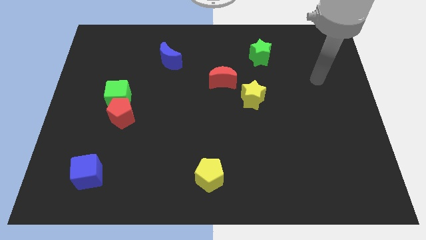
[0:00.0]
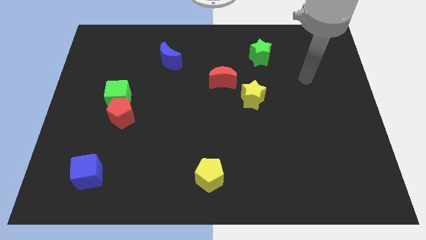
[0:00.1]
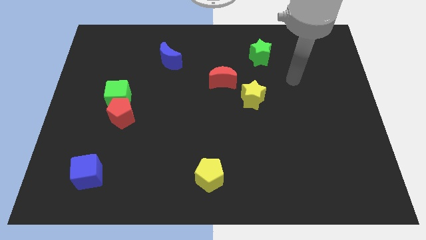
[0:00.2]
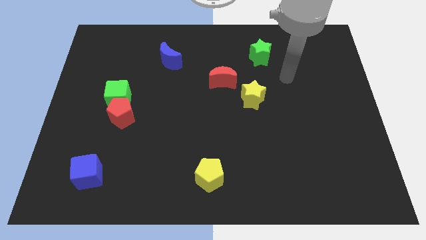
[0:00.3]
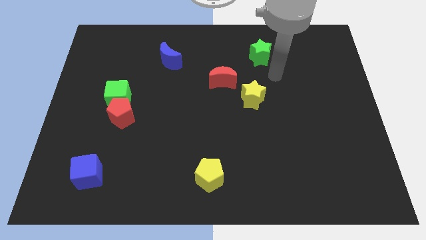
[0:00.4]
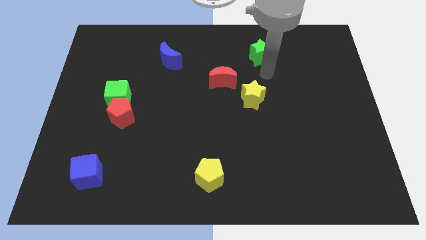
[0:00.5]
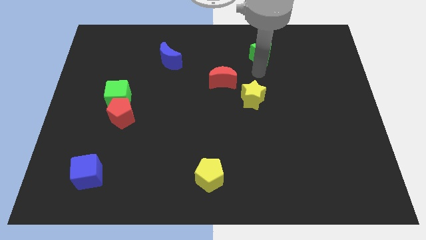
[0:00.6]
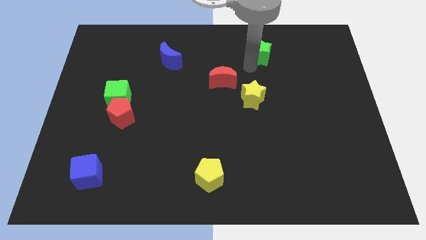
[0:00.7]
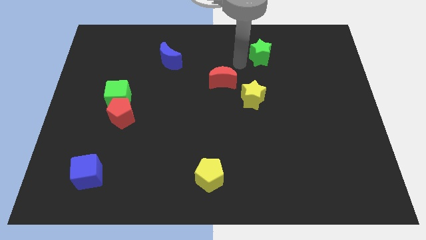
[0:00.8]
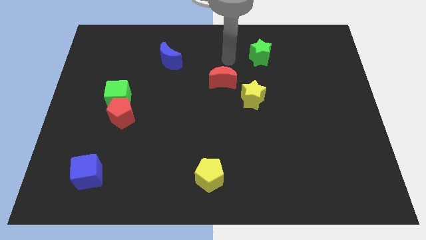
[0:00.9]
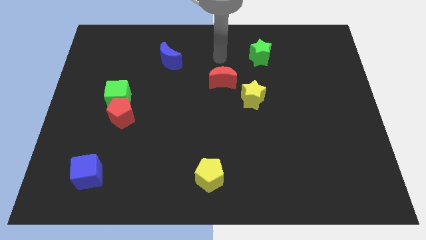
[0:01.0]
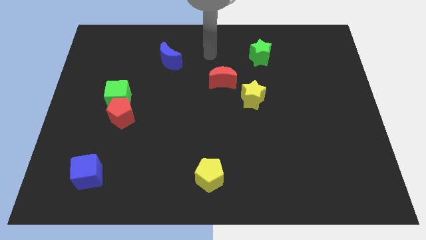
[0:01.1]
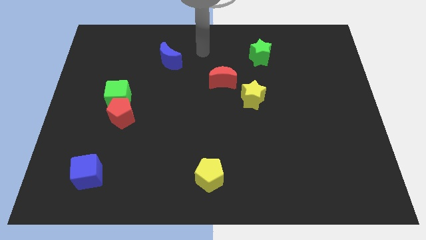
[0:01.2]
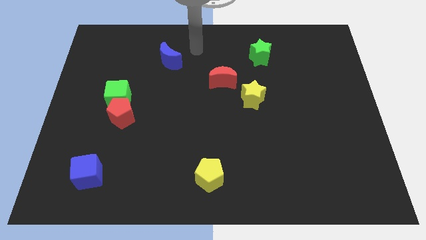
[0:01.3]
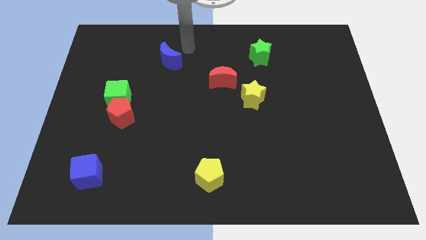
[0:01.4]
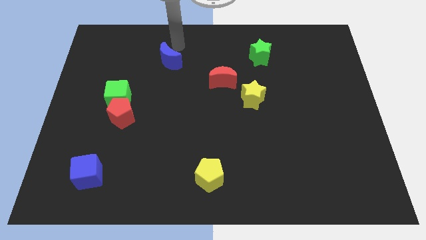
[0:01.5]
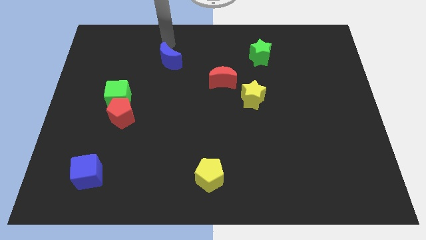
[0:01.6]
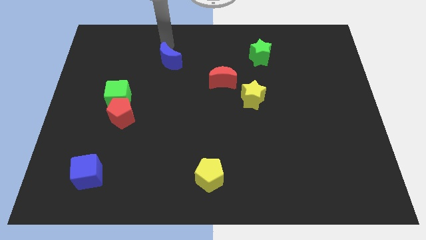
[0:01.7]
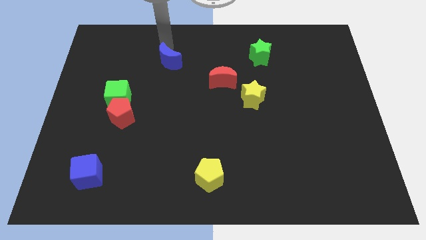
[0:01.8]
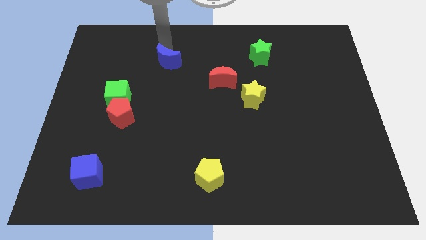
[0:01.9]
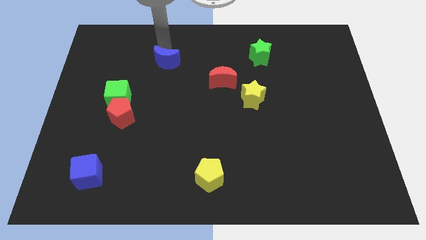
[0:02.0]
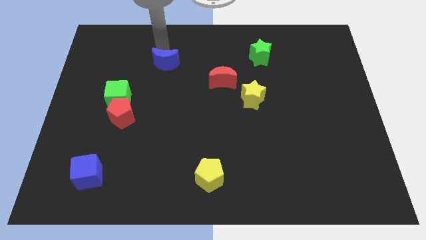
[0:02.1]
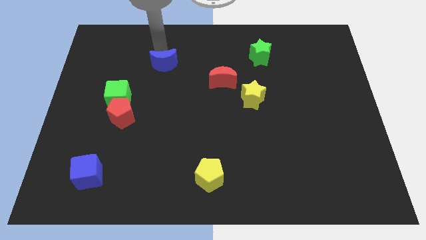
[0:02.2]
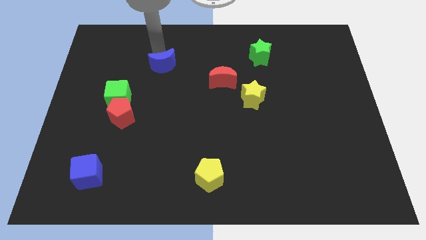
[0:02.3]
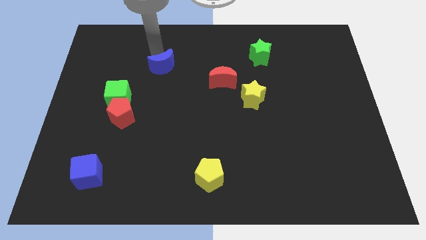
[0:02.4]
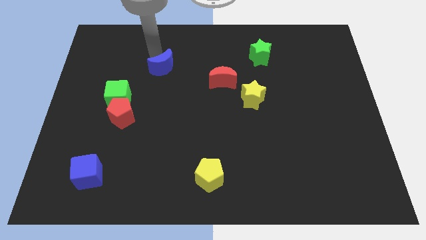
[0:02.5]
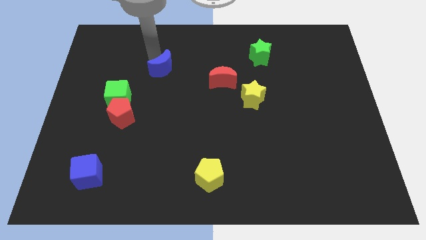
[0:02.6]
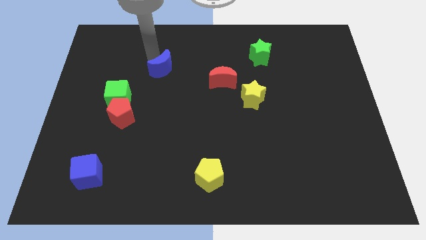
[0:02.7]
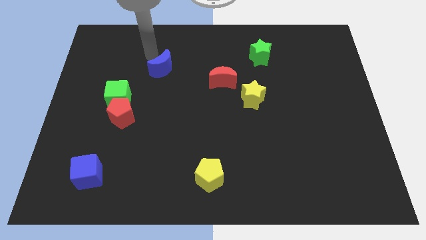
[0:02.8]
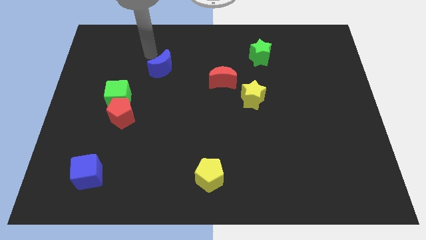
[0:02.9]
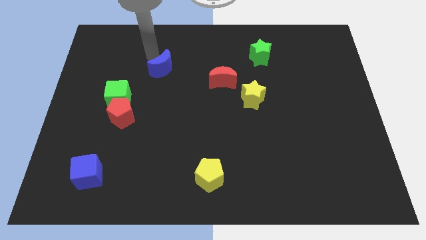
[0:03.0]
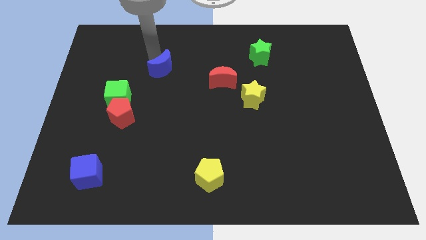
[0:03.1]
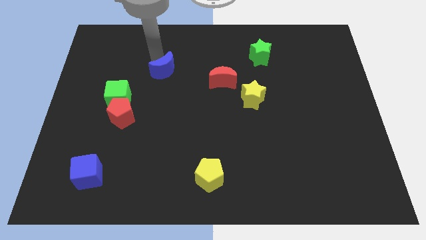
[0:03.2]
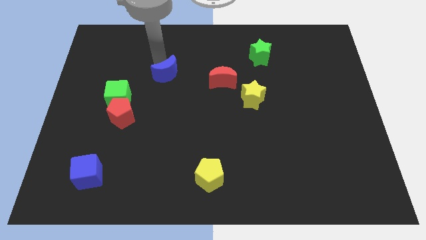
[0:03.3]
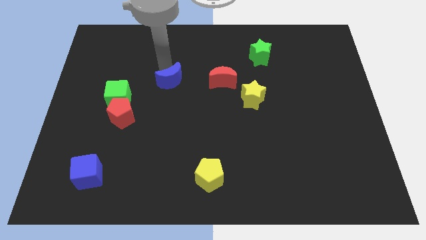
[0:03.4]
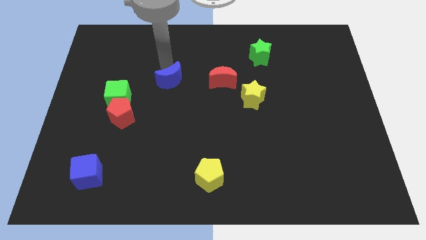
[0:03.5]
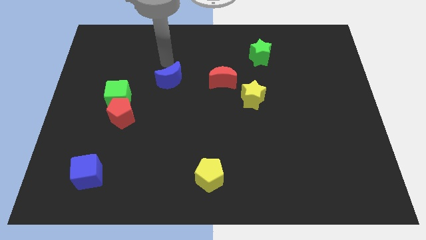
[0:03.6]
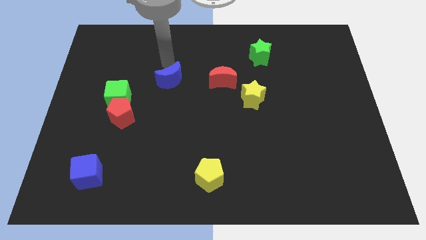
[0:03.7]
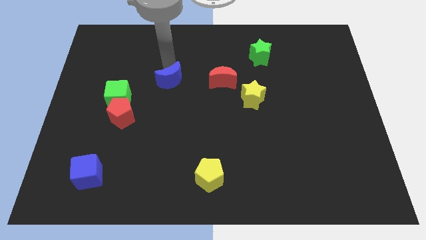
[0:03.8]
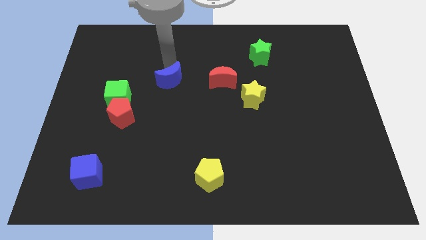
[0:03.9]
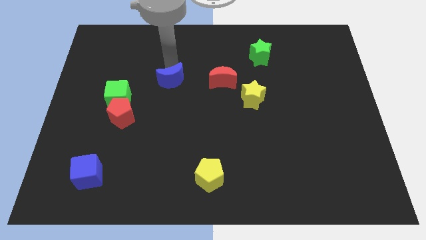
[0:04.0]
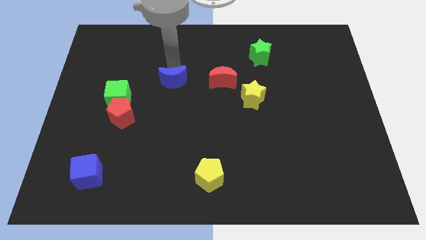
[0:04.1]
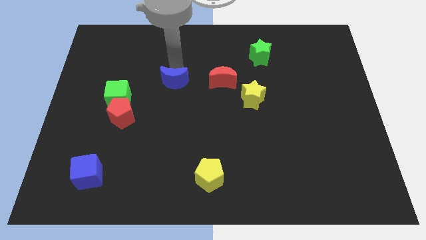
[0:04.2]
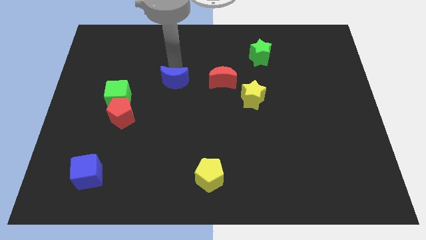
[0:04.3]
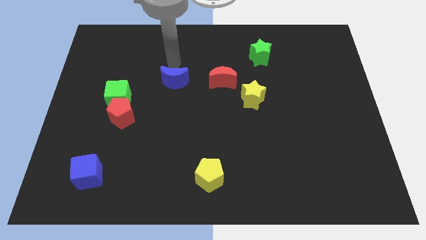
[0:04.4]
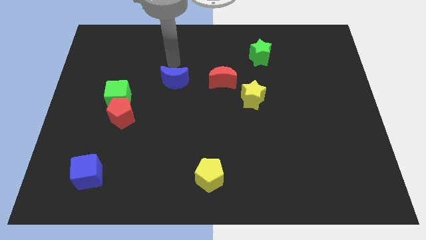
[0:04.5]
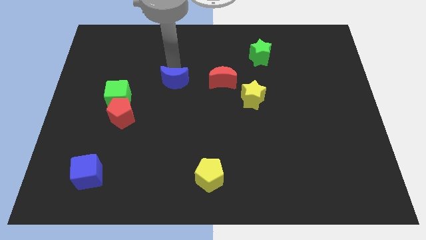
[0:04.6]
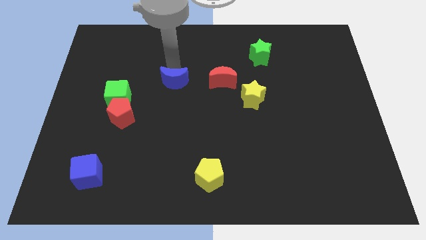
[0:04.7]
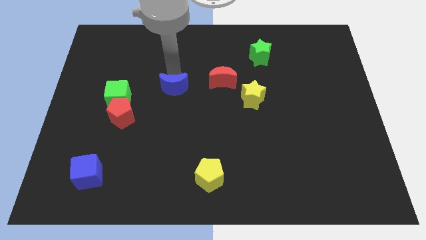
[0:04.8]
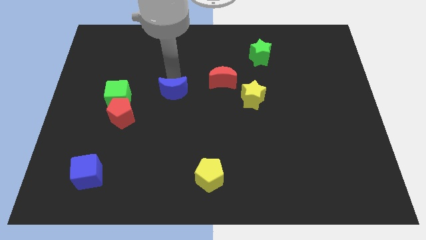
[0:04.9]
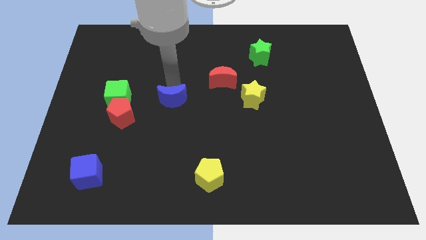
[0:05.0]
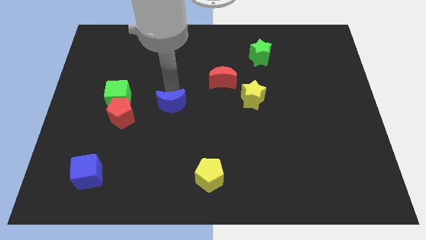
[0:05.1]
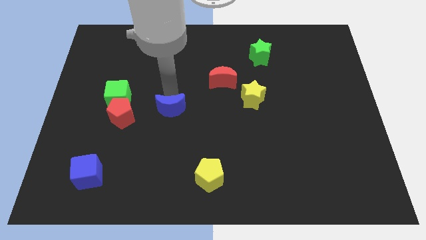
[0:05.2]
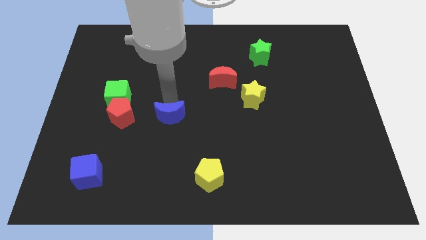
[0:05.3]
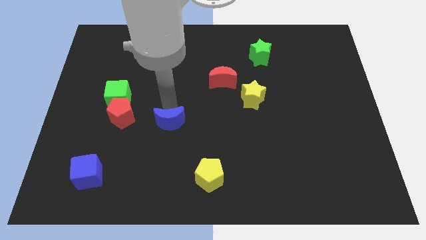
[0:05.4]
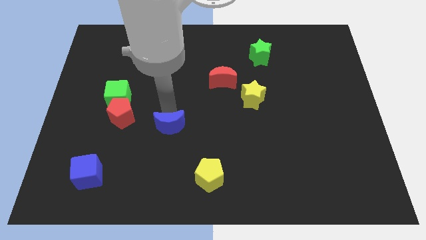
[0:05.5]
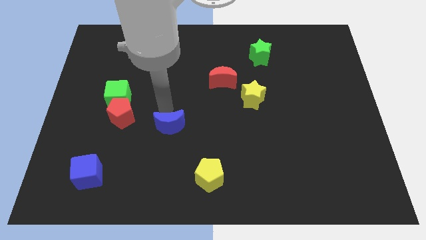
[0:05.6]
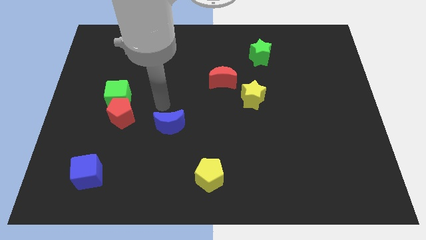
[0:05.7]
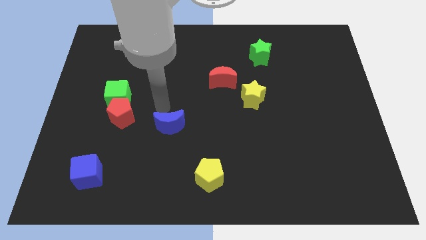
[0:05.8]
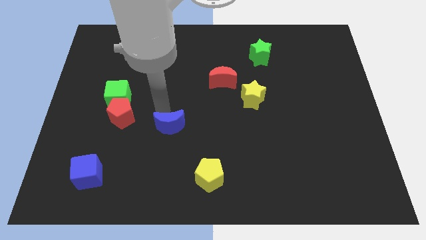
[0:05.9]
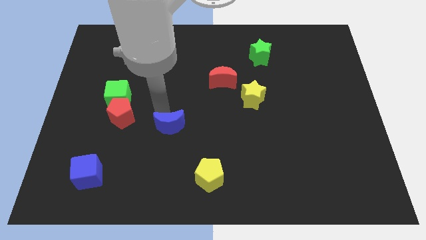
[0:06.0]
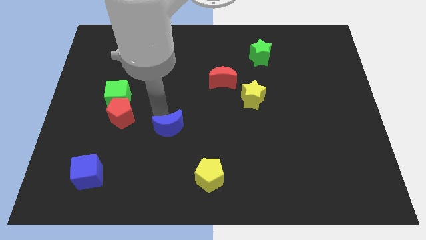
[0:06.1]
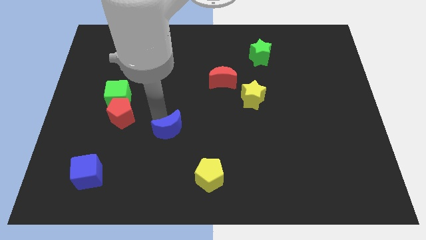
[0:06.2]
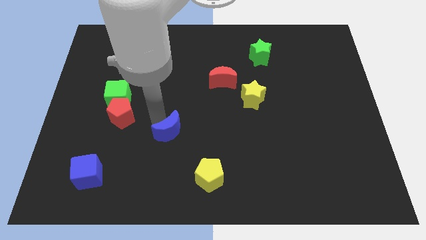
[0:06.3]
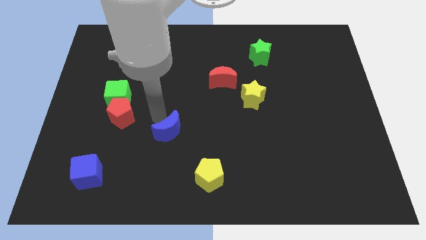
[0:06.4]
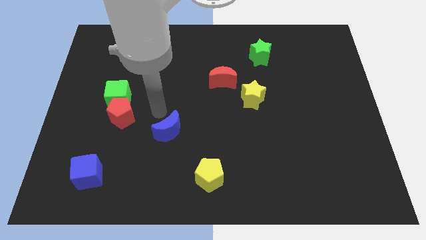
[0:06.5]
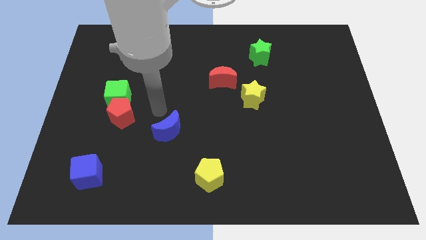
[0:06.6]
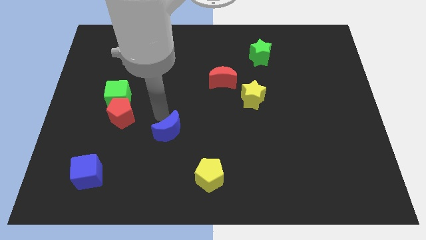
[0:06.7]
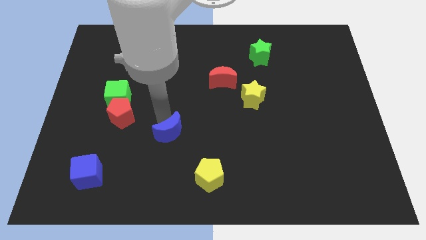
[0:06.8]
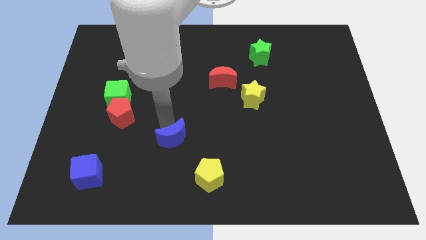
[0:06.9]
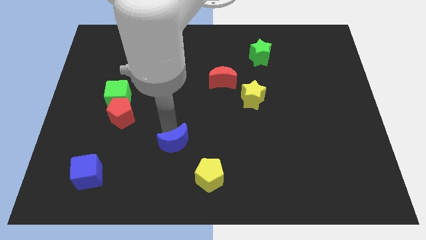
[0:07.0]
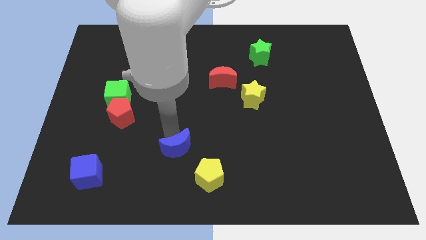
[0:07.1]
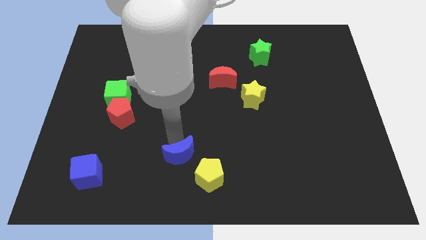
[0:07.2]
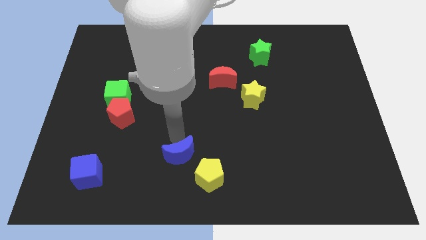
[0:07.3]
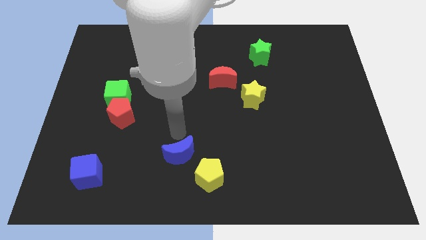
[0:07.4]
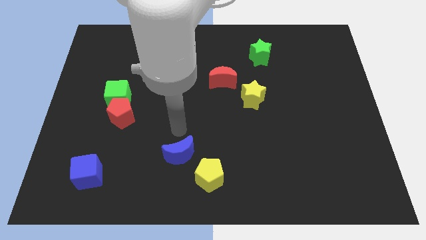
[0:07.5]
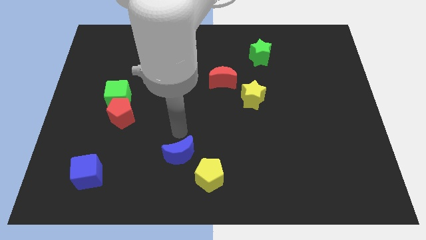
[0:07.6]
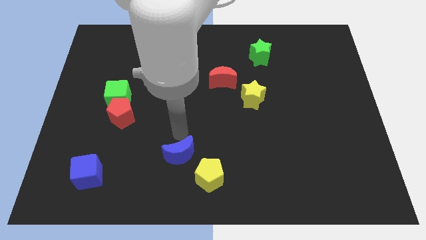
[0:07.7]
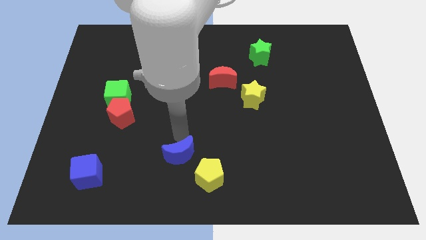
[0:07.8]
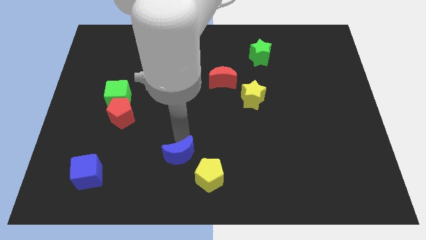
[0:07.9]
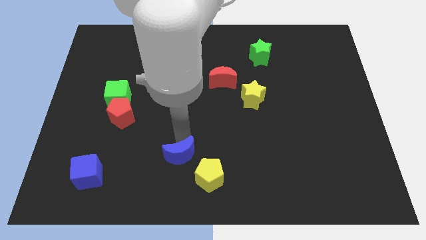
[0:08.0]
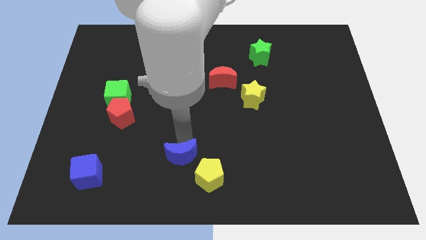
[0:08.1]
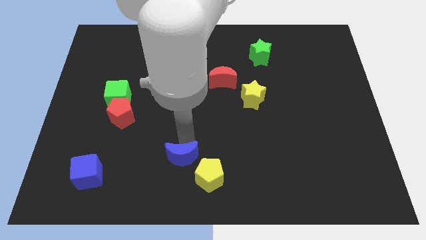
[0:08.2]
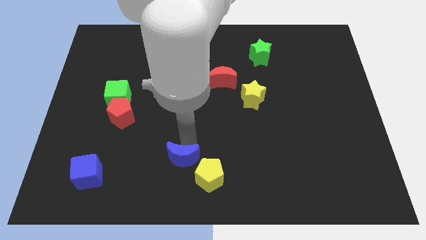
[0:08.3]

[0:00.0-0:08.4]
slide the blue moon to the bottom
